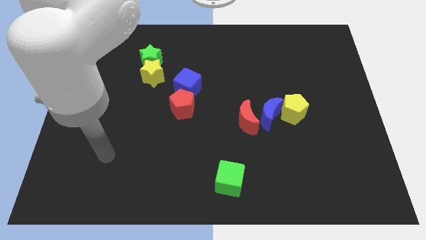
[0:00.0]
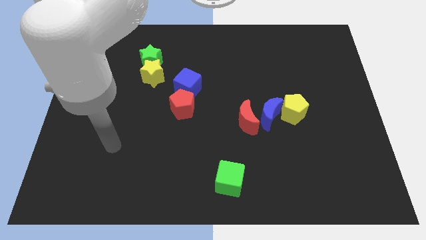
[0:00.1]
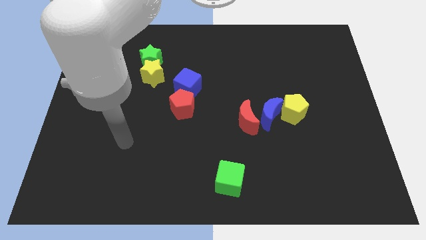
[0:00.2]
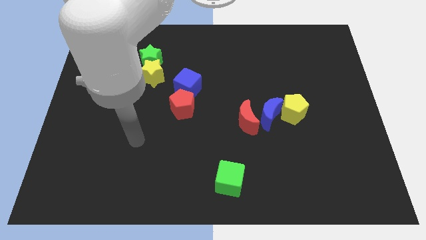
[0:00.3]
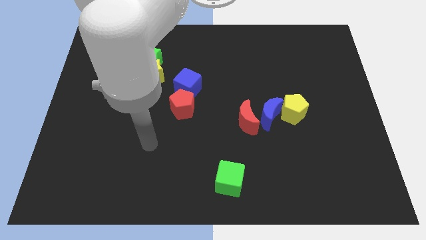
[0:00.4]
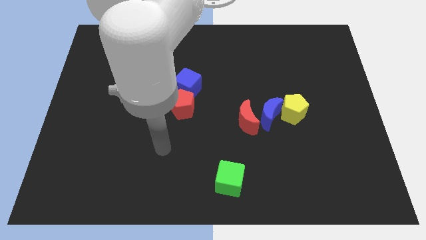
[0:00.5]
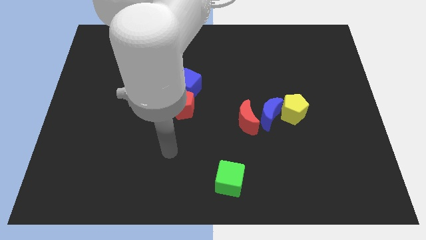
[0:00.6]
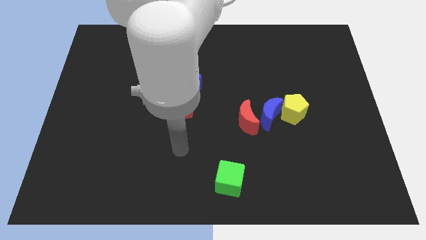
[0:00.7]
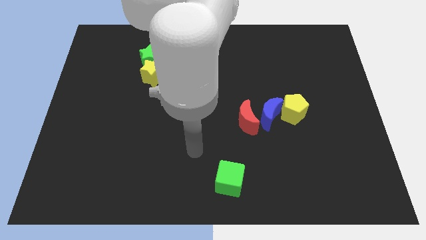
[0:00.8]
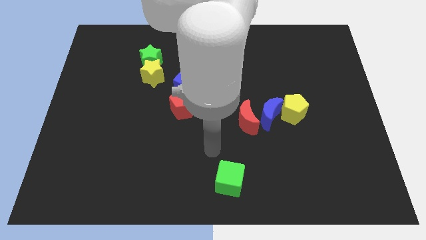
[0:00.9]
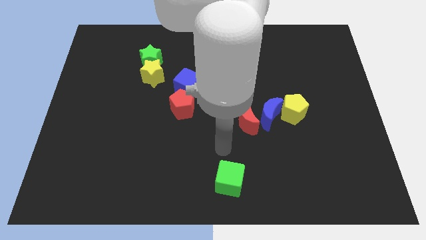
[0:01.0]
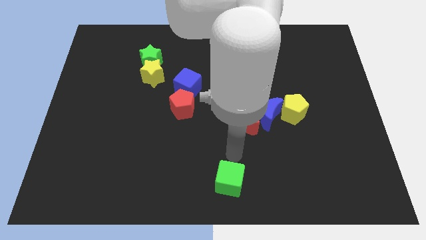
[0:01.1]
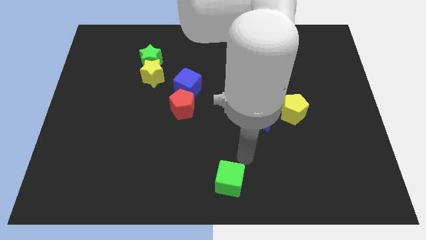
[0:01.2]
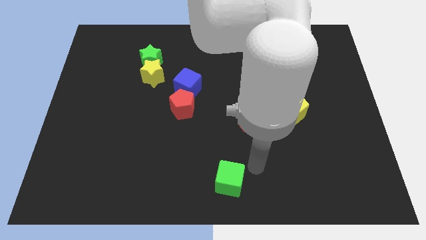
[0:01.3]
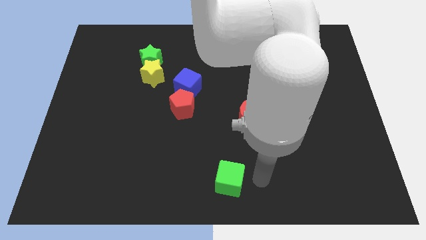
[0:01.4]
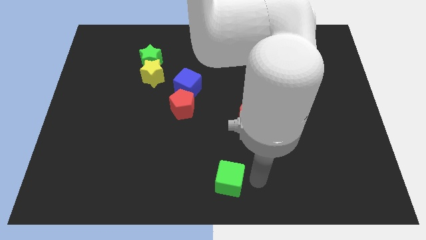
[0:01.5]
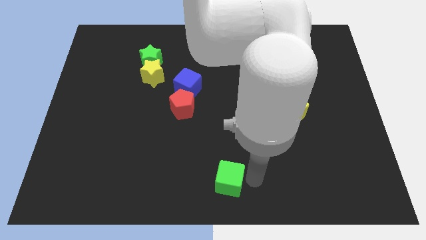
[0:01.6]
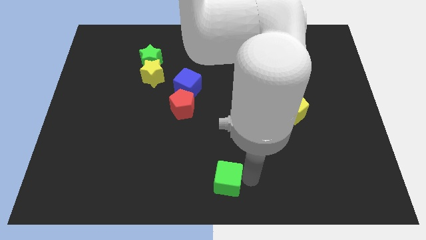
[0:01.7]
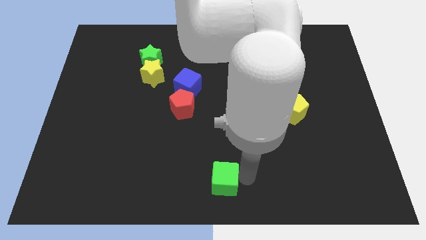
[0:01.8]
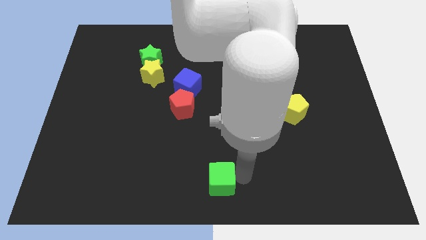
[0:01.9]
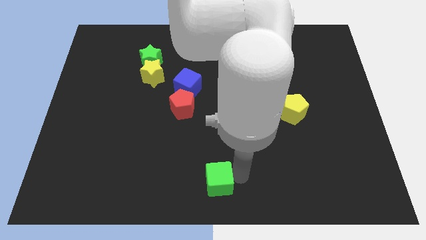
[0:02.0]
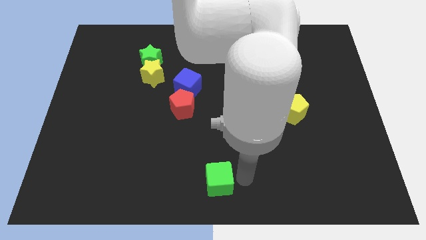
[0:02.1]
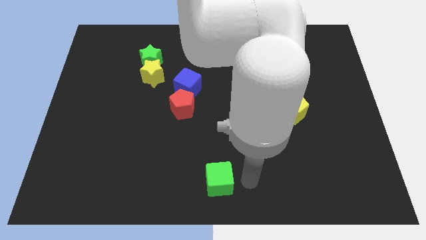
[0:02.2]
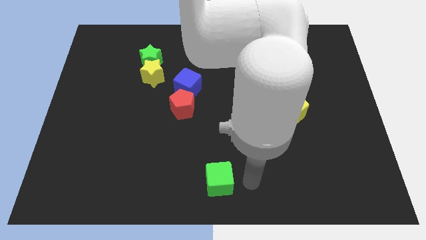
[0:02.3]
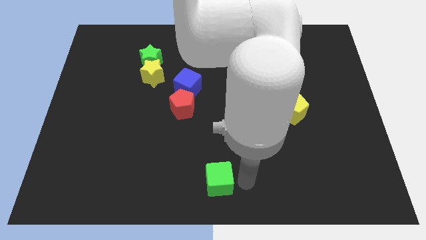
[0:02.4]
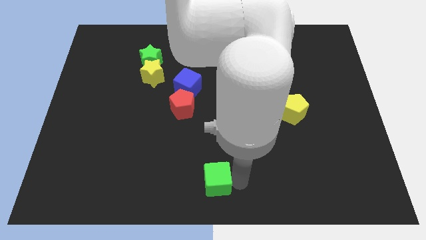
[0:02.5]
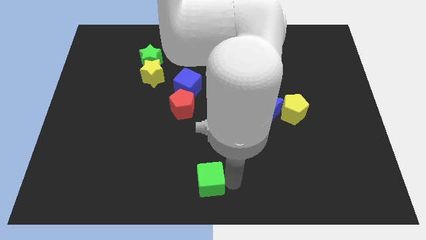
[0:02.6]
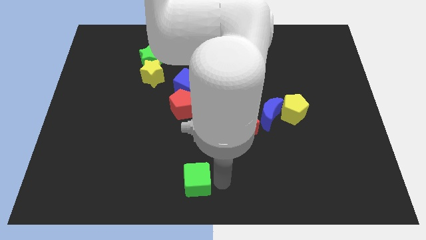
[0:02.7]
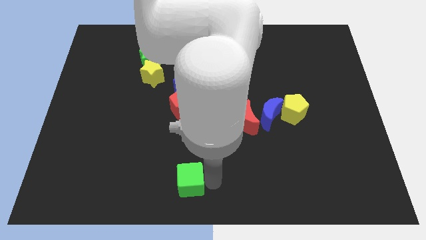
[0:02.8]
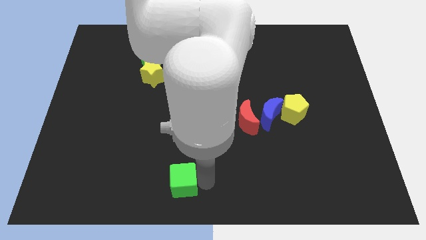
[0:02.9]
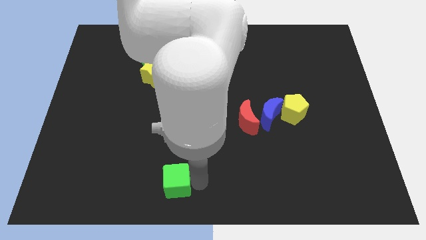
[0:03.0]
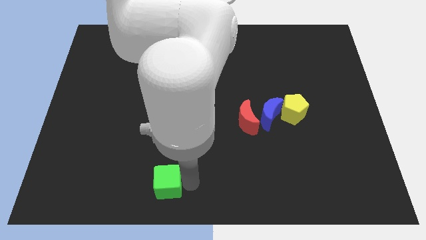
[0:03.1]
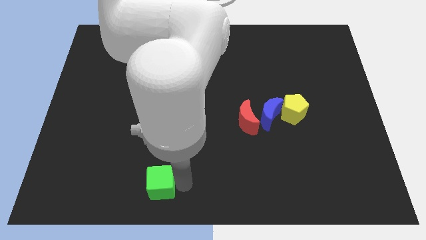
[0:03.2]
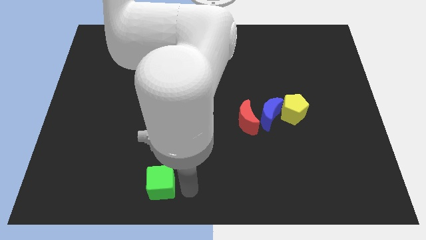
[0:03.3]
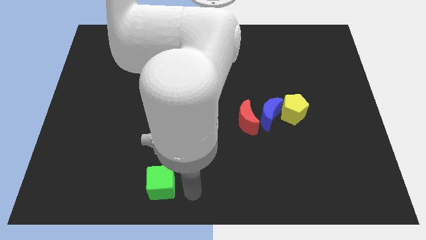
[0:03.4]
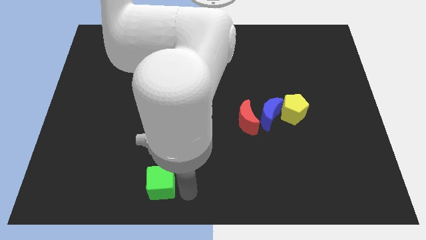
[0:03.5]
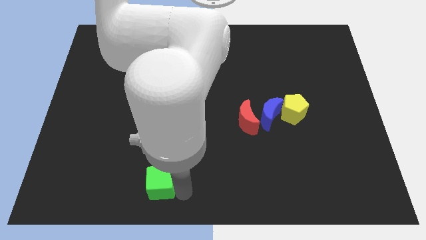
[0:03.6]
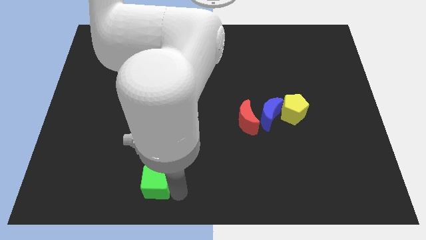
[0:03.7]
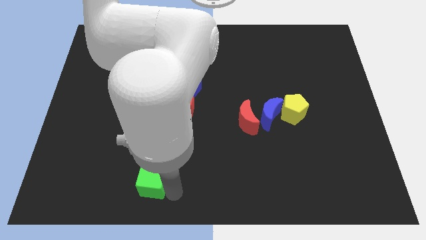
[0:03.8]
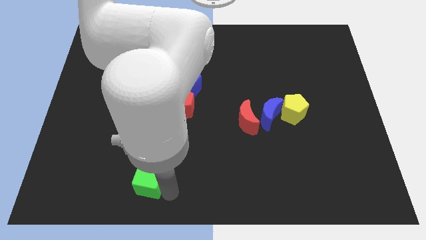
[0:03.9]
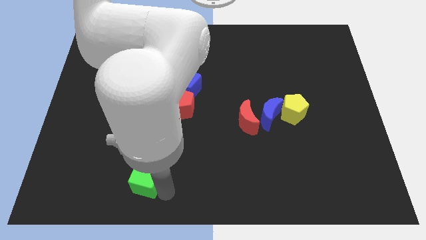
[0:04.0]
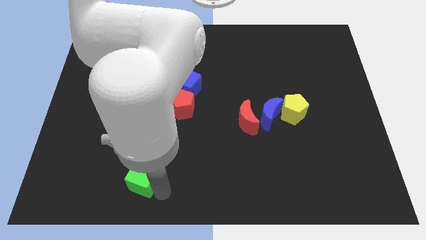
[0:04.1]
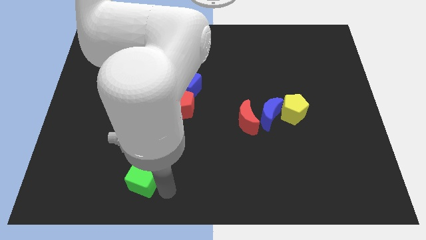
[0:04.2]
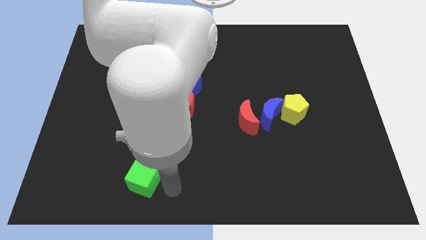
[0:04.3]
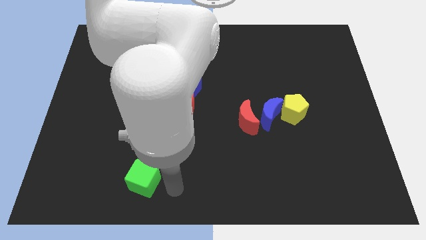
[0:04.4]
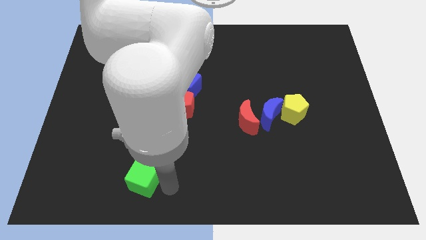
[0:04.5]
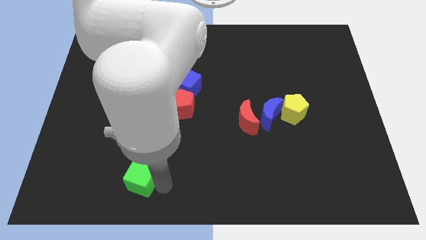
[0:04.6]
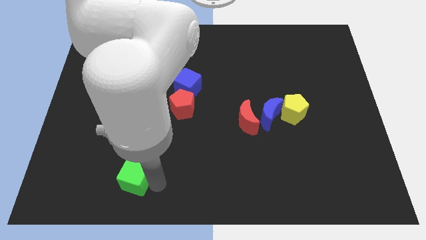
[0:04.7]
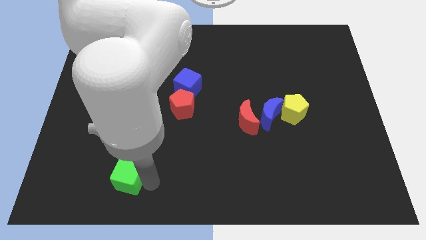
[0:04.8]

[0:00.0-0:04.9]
move the green cube to the left

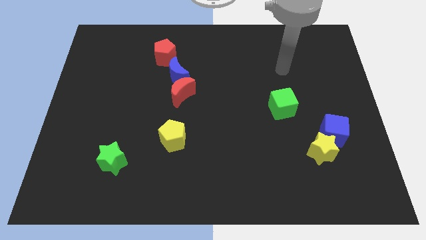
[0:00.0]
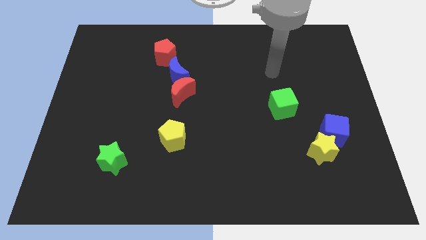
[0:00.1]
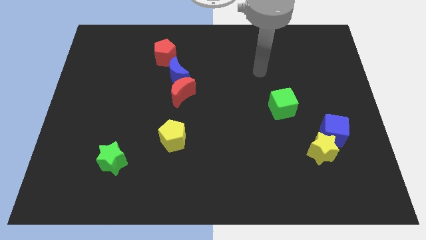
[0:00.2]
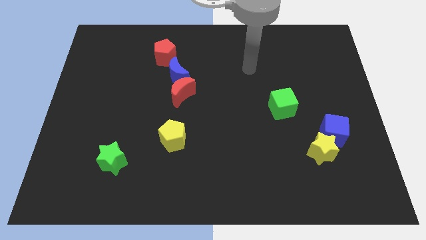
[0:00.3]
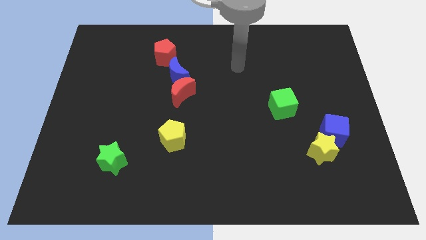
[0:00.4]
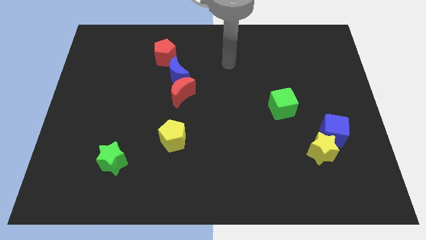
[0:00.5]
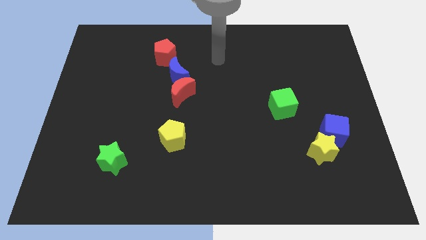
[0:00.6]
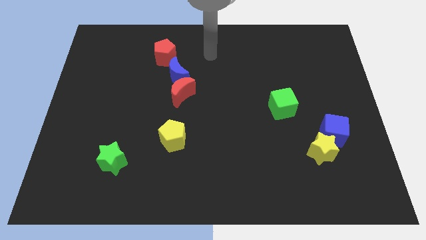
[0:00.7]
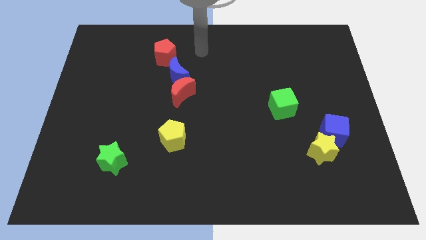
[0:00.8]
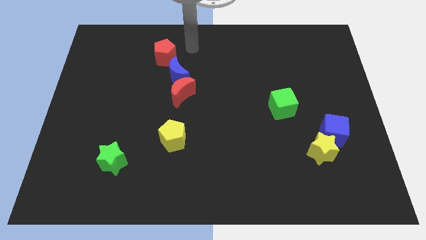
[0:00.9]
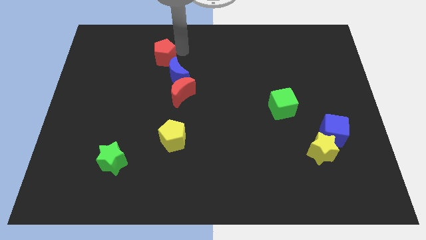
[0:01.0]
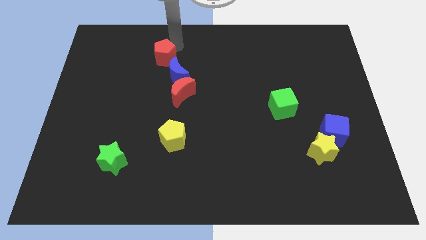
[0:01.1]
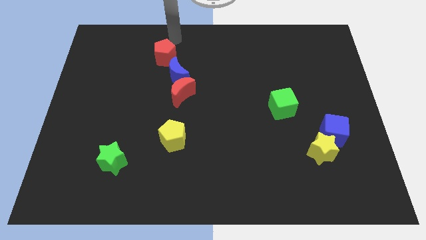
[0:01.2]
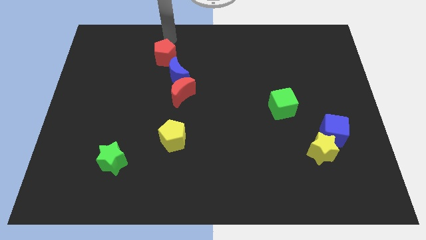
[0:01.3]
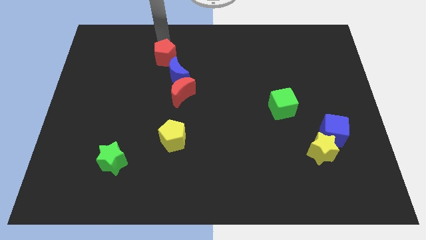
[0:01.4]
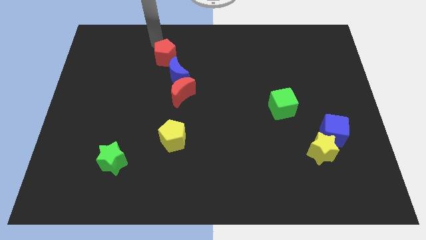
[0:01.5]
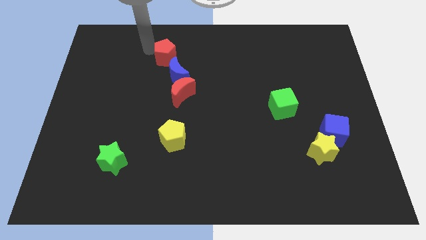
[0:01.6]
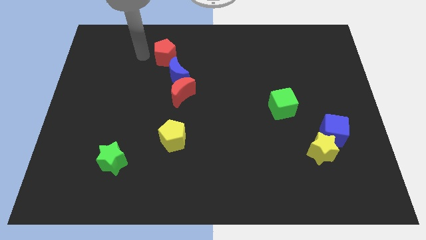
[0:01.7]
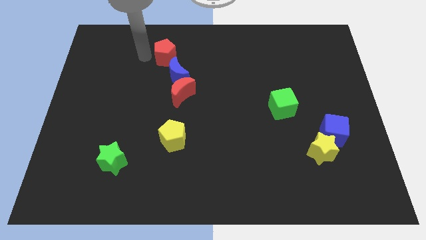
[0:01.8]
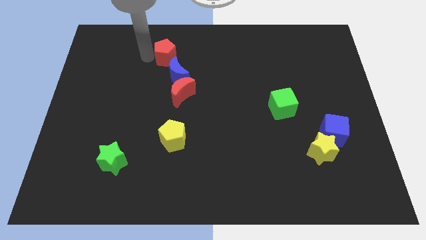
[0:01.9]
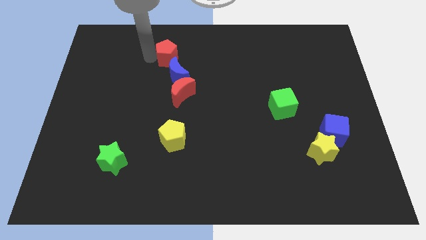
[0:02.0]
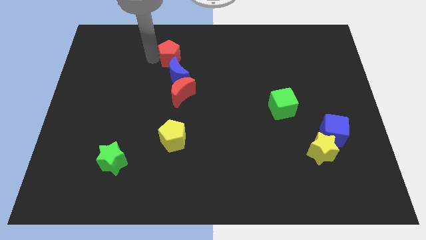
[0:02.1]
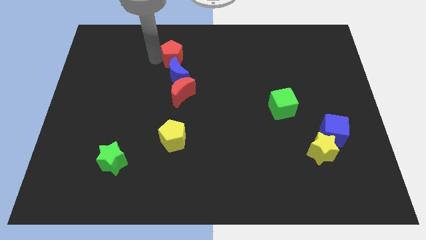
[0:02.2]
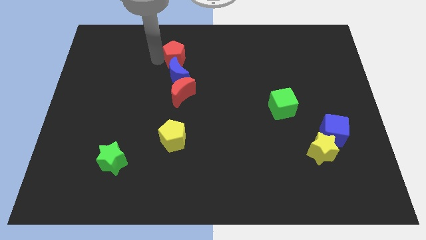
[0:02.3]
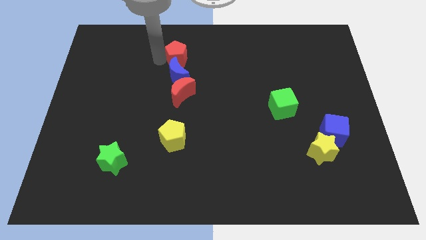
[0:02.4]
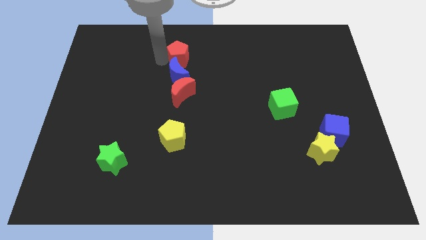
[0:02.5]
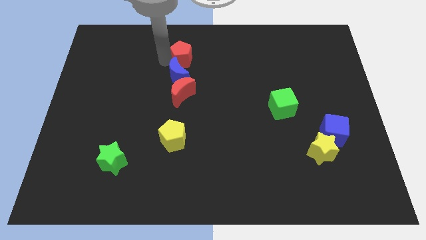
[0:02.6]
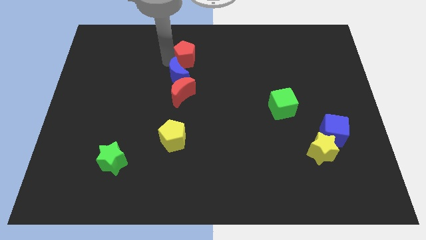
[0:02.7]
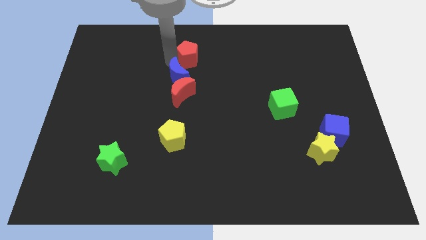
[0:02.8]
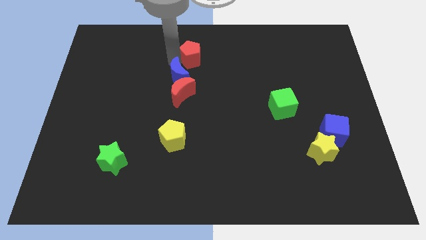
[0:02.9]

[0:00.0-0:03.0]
move the red pentagon to the right a bit
